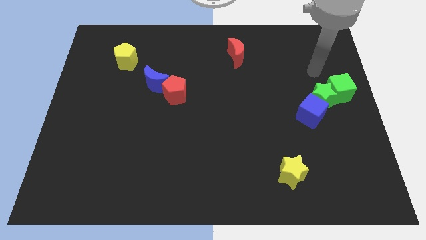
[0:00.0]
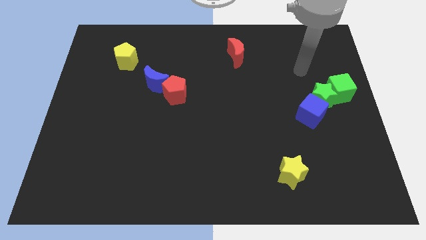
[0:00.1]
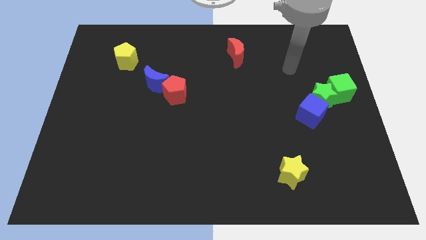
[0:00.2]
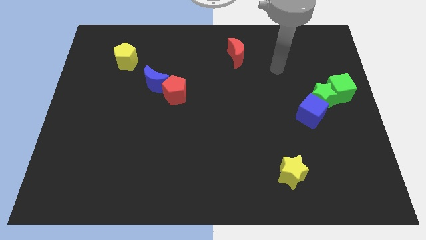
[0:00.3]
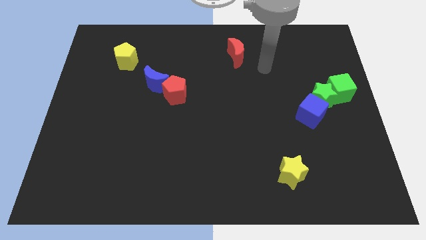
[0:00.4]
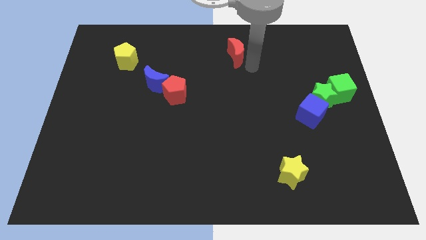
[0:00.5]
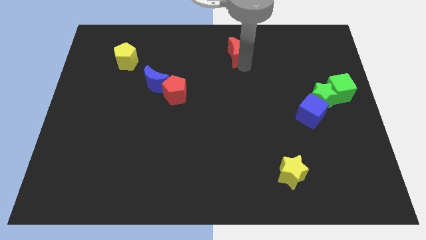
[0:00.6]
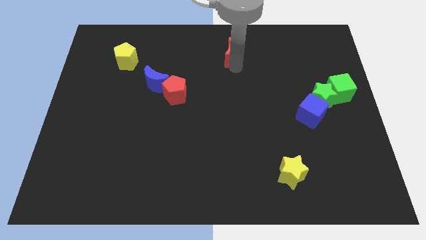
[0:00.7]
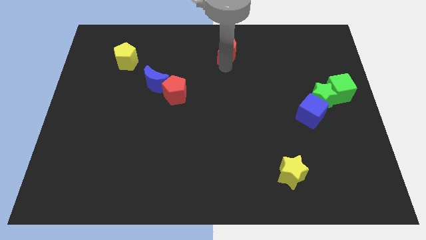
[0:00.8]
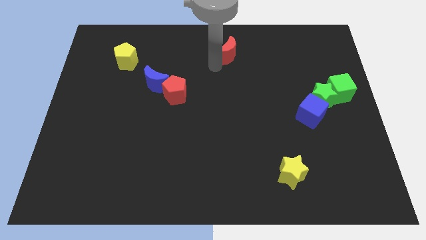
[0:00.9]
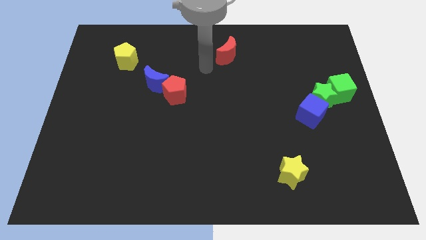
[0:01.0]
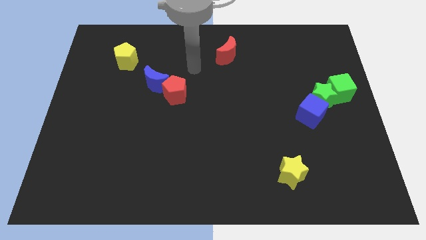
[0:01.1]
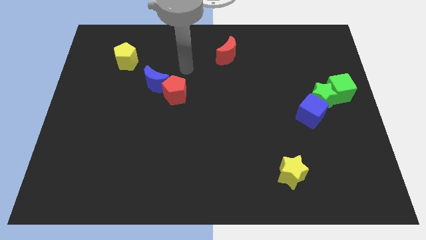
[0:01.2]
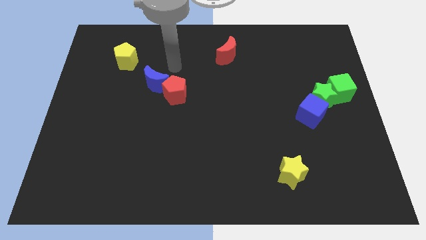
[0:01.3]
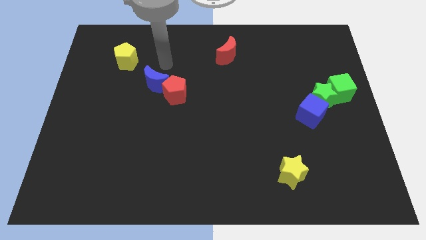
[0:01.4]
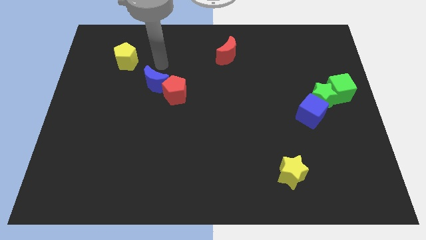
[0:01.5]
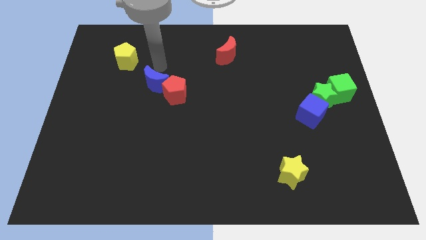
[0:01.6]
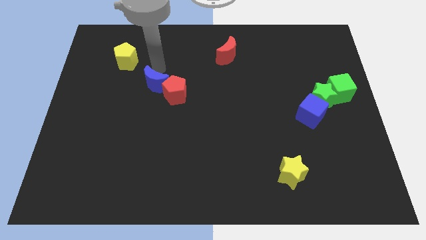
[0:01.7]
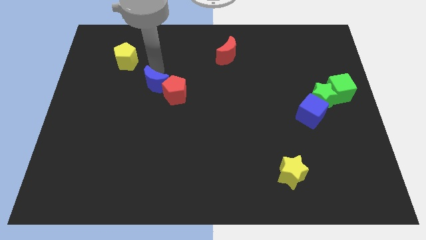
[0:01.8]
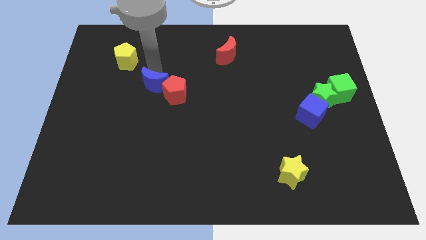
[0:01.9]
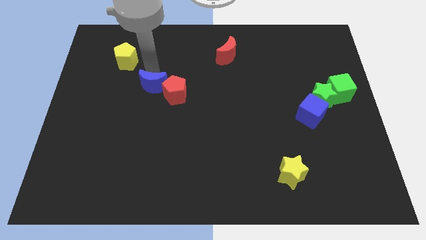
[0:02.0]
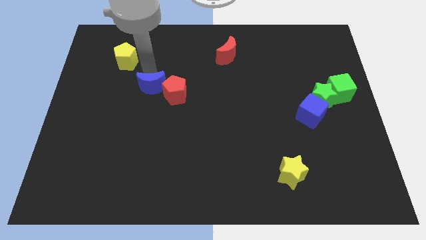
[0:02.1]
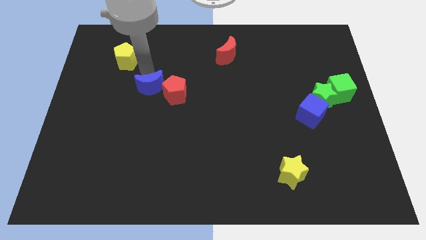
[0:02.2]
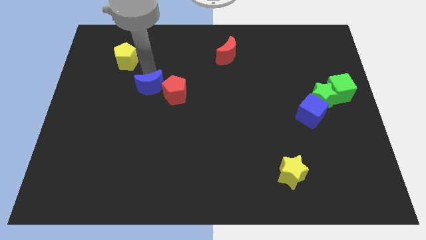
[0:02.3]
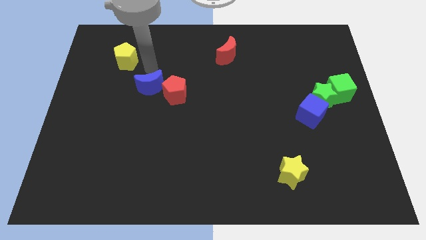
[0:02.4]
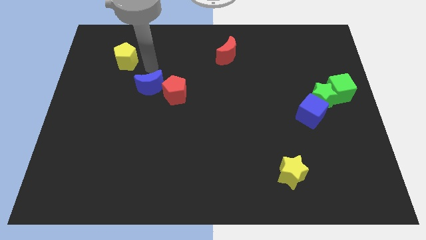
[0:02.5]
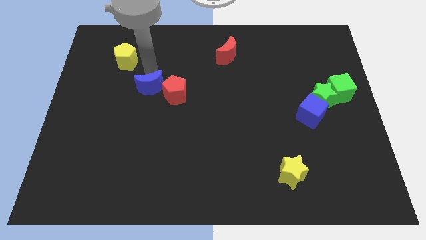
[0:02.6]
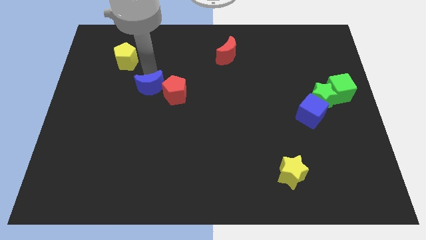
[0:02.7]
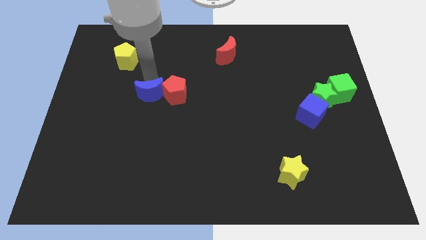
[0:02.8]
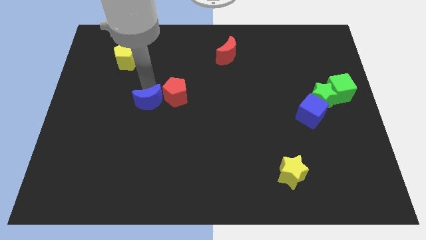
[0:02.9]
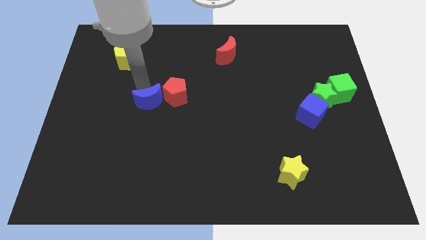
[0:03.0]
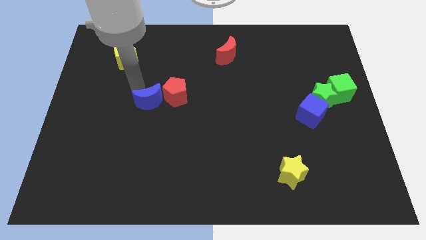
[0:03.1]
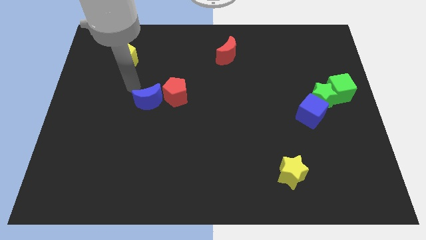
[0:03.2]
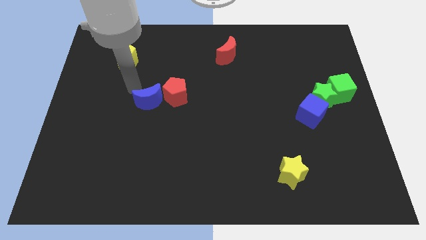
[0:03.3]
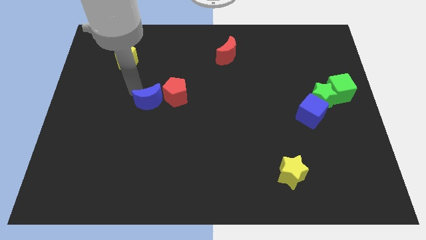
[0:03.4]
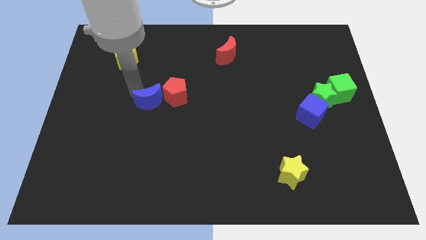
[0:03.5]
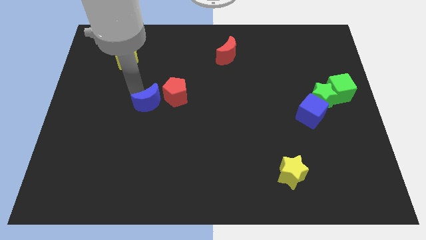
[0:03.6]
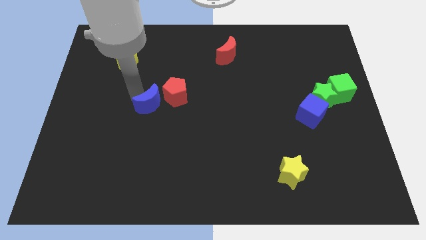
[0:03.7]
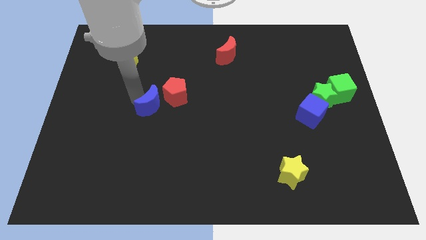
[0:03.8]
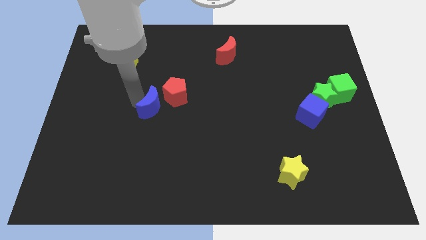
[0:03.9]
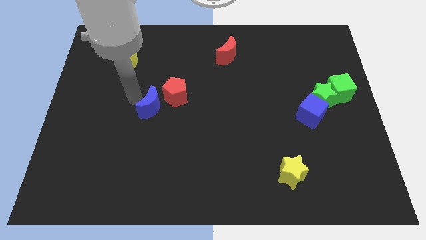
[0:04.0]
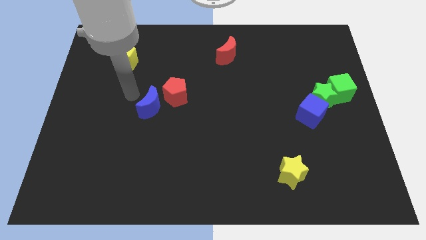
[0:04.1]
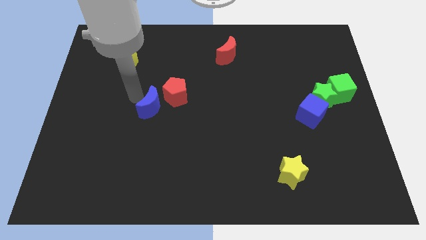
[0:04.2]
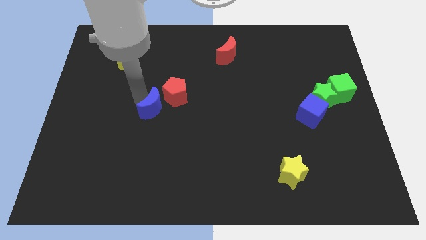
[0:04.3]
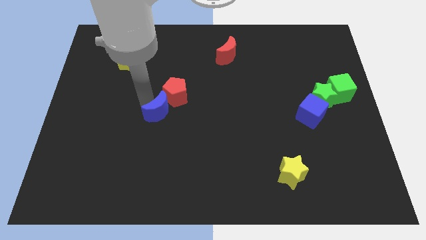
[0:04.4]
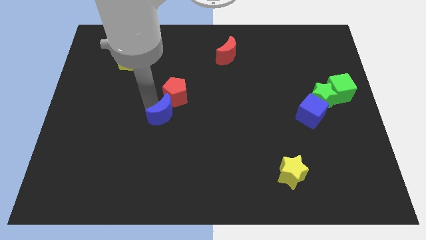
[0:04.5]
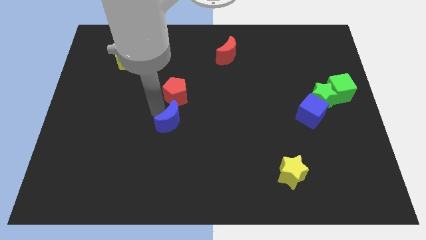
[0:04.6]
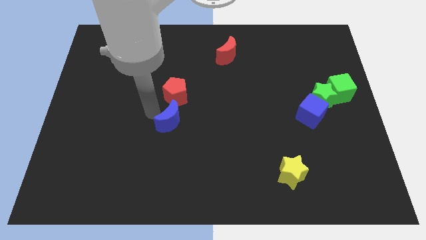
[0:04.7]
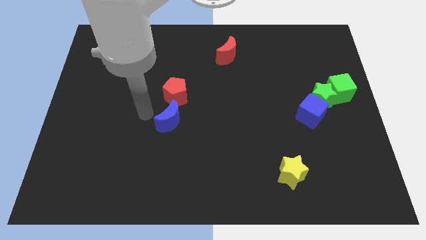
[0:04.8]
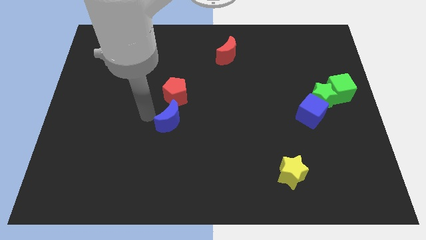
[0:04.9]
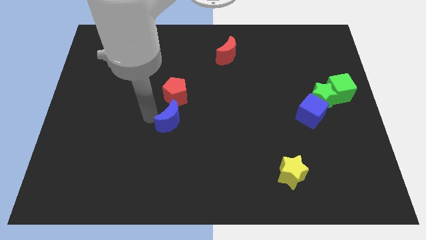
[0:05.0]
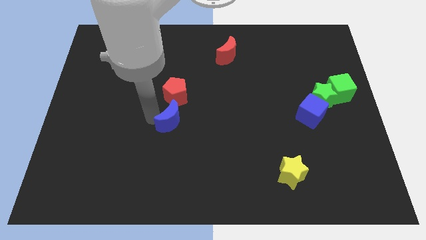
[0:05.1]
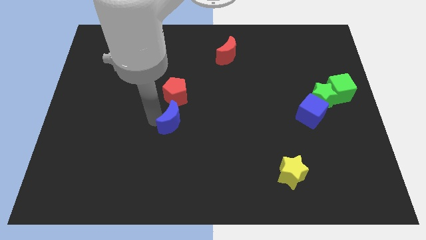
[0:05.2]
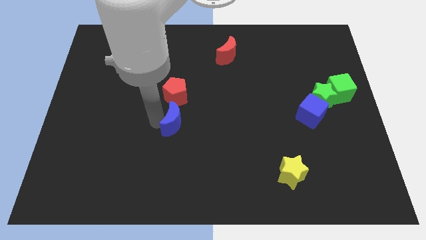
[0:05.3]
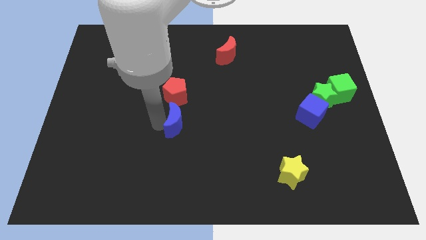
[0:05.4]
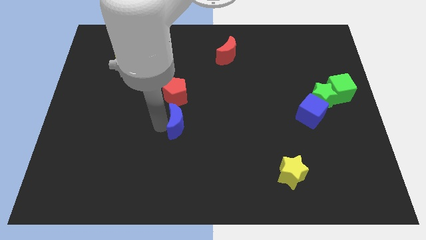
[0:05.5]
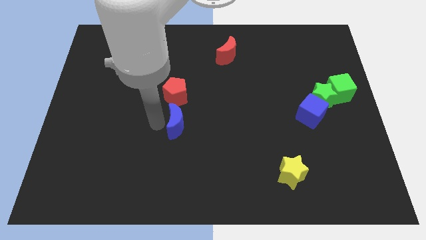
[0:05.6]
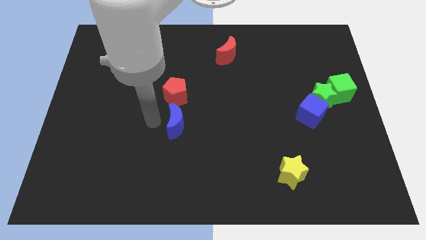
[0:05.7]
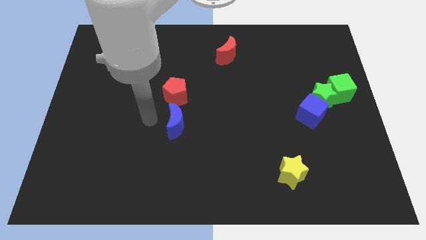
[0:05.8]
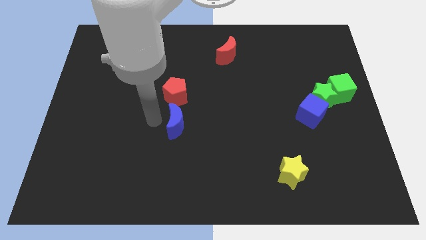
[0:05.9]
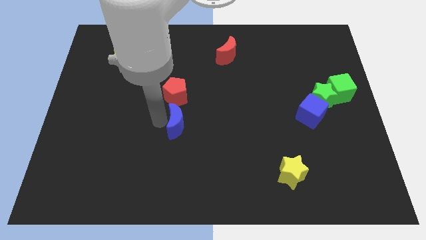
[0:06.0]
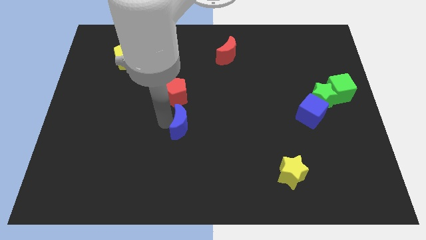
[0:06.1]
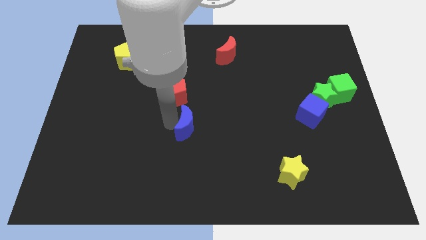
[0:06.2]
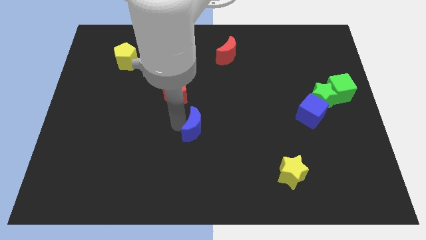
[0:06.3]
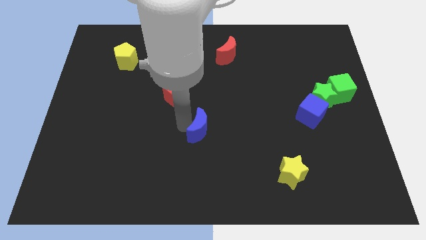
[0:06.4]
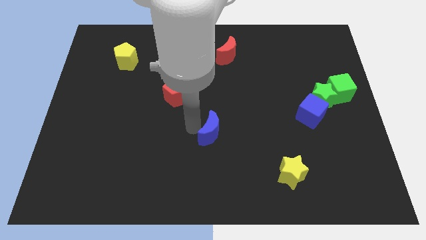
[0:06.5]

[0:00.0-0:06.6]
slide the blue moon down and then right

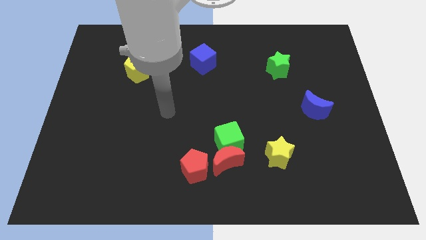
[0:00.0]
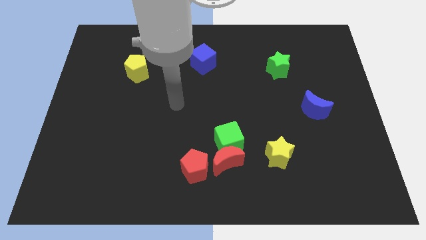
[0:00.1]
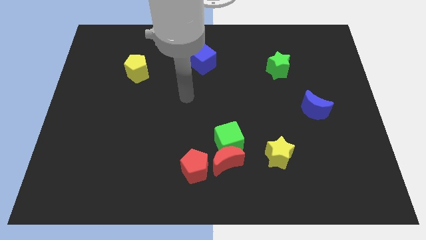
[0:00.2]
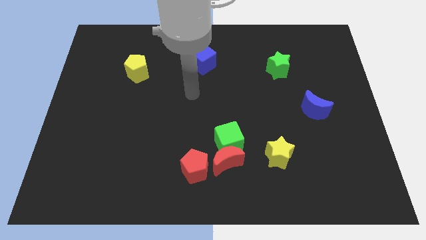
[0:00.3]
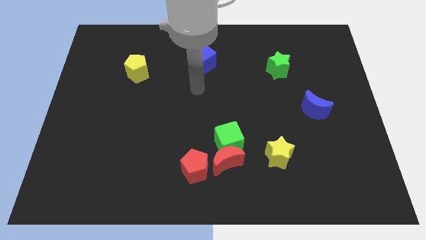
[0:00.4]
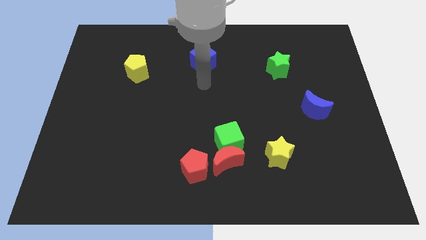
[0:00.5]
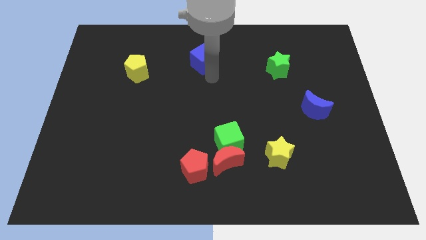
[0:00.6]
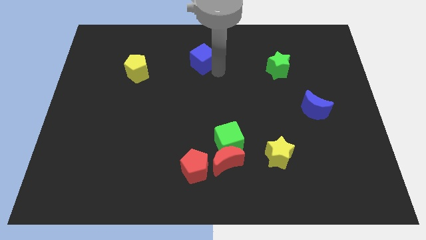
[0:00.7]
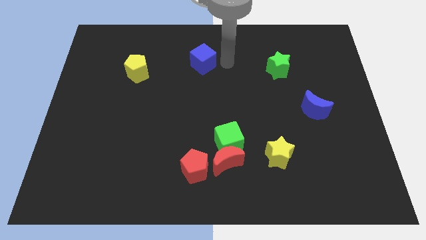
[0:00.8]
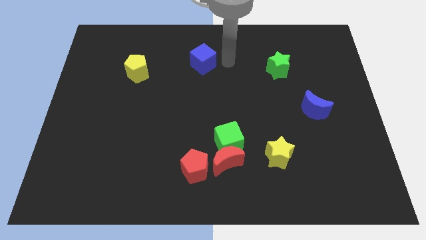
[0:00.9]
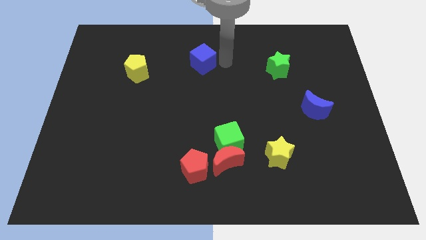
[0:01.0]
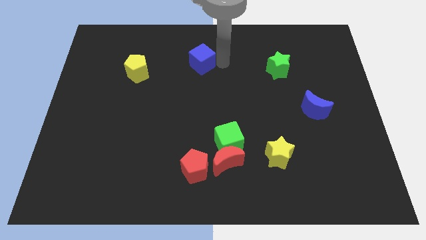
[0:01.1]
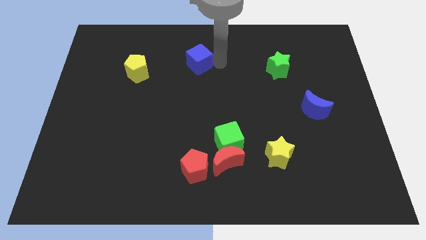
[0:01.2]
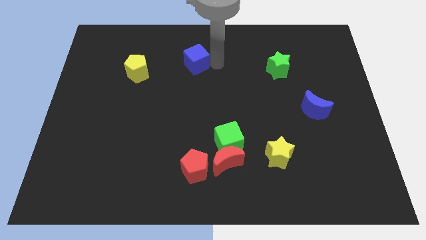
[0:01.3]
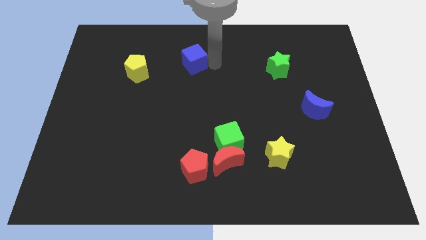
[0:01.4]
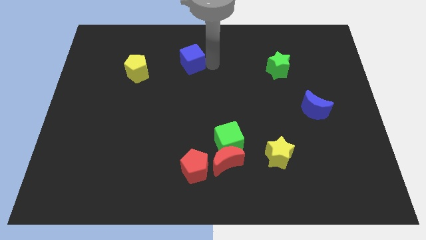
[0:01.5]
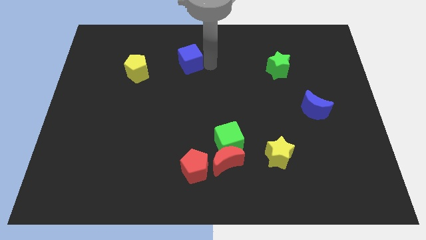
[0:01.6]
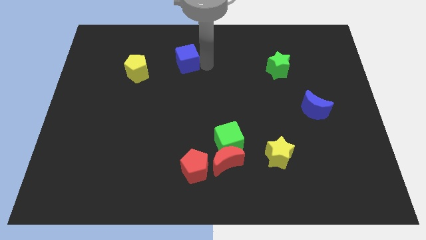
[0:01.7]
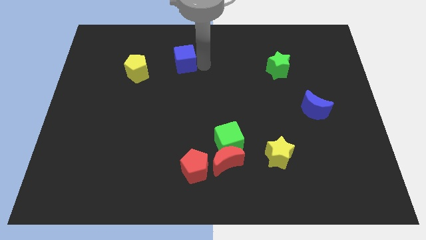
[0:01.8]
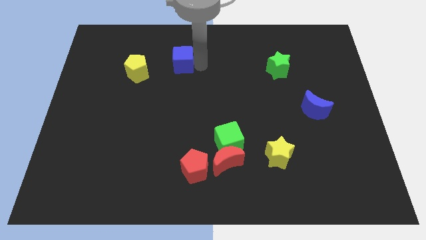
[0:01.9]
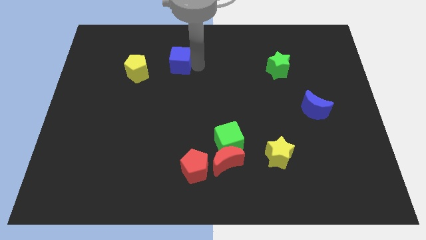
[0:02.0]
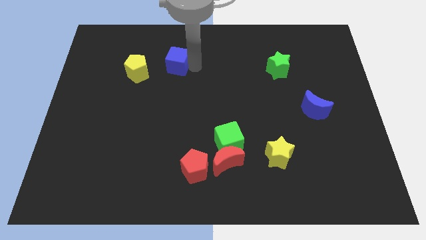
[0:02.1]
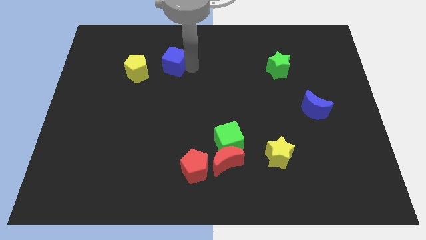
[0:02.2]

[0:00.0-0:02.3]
slide the blue cube somewhat left
